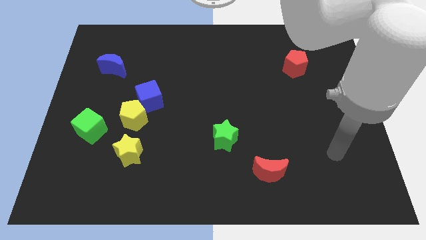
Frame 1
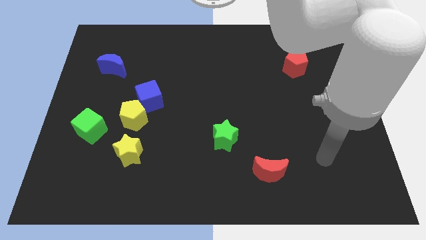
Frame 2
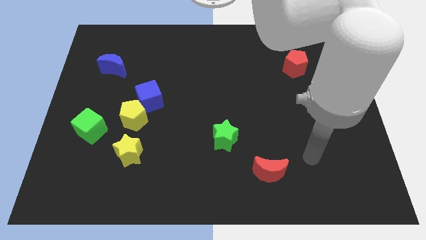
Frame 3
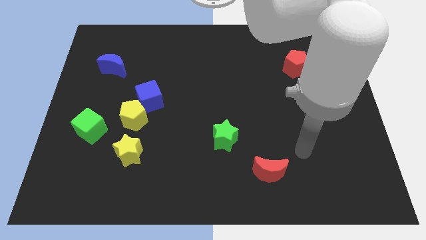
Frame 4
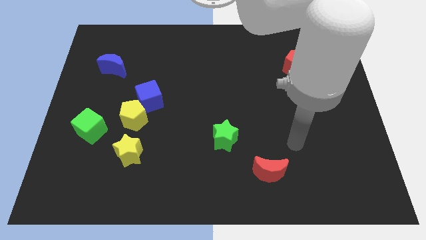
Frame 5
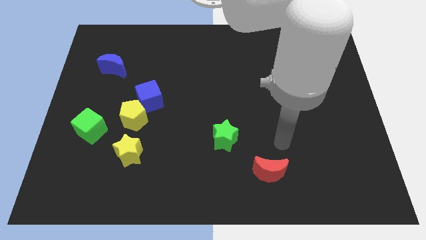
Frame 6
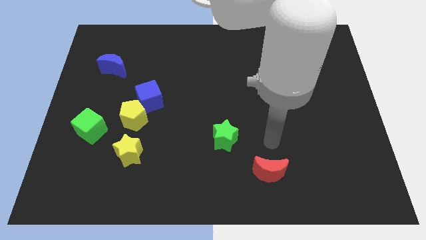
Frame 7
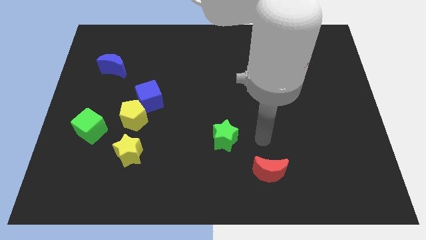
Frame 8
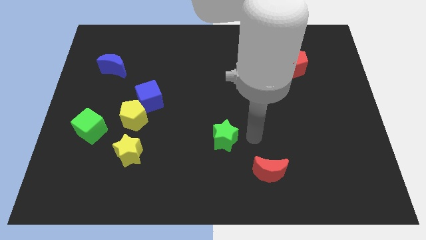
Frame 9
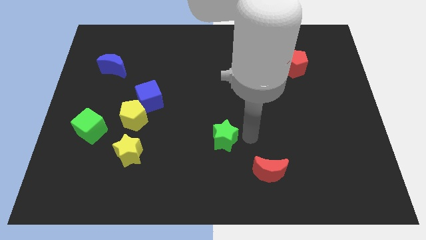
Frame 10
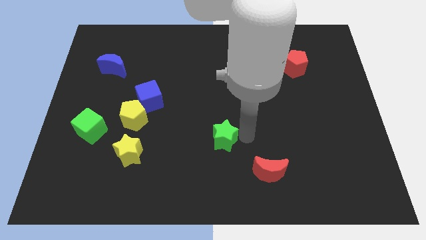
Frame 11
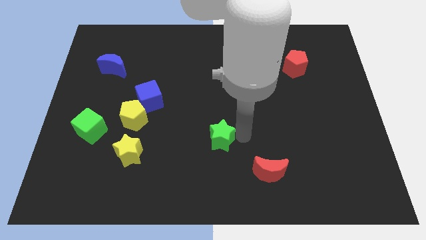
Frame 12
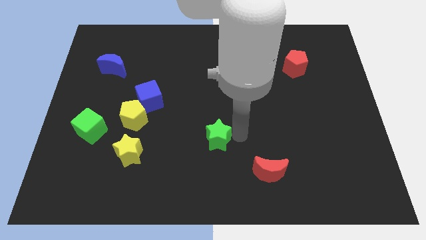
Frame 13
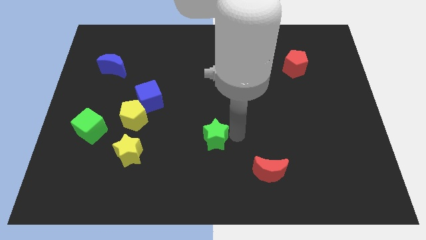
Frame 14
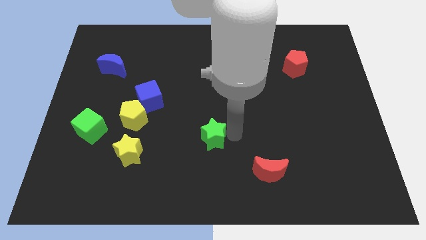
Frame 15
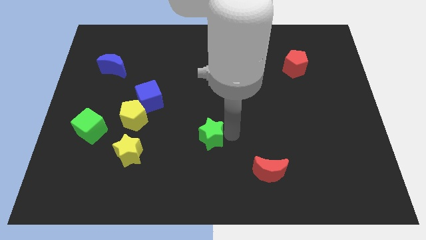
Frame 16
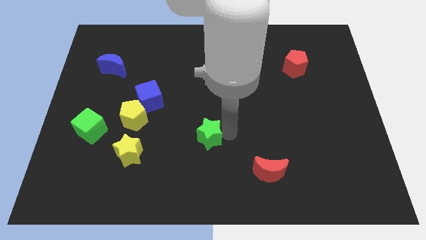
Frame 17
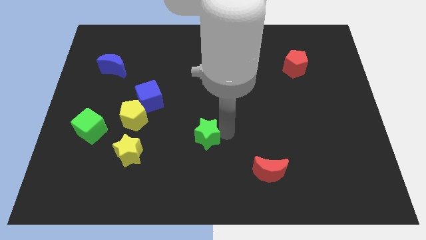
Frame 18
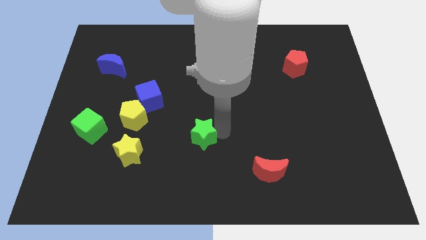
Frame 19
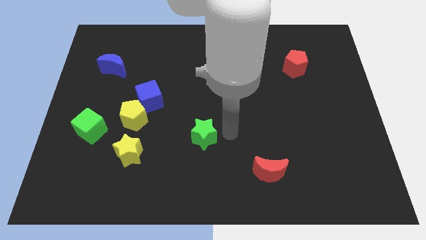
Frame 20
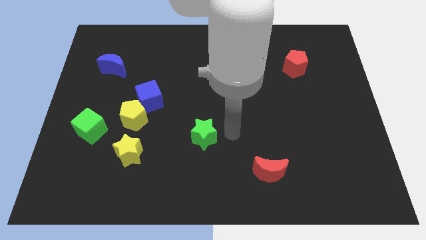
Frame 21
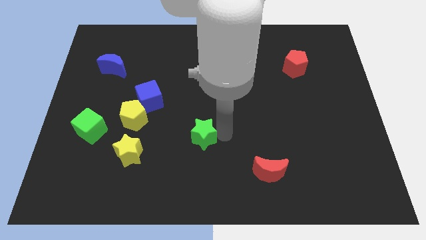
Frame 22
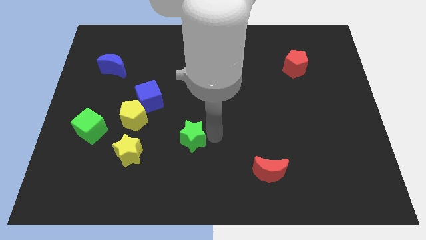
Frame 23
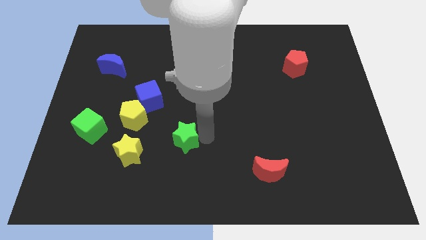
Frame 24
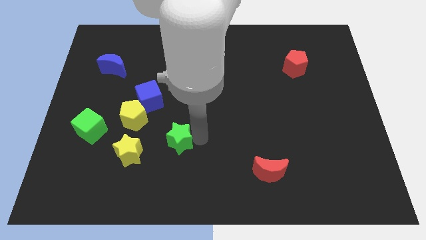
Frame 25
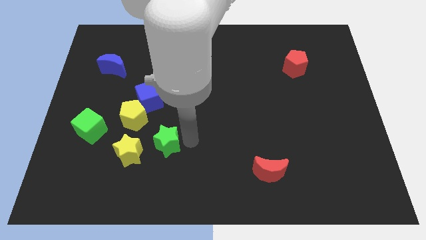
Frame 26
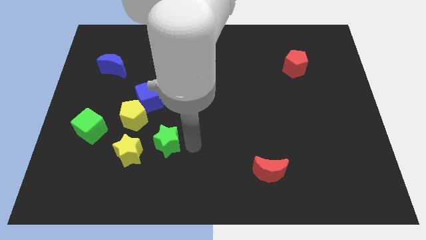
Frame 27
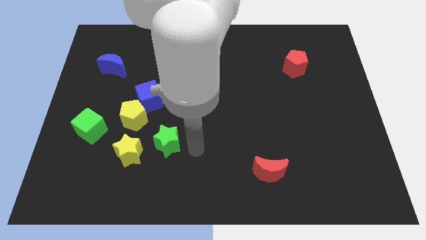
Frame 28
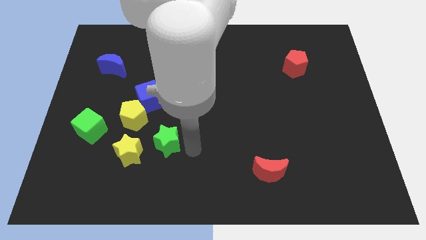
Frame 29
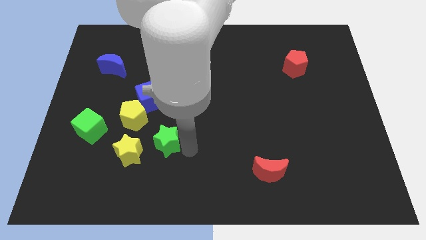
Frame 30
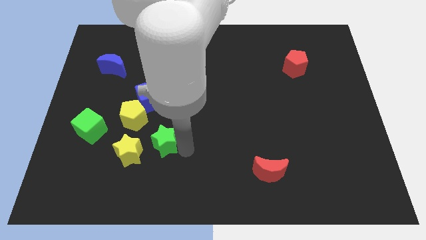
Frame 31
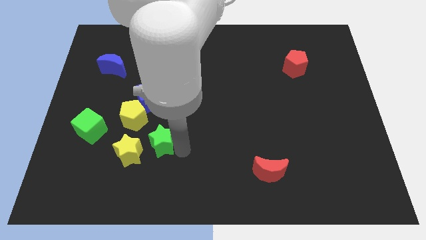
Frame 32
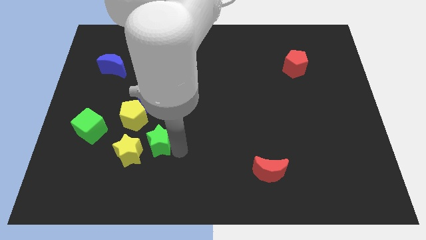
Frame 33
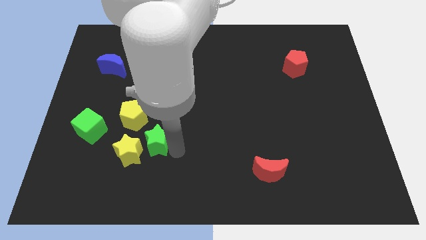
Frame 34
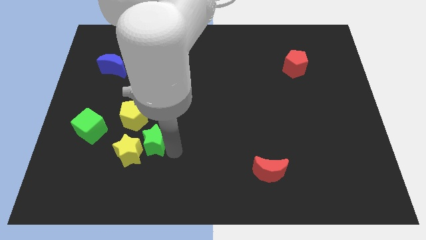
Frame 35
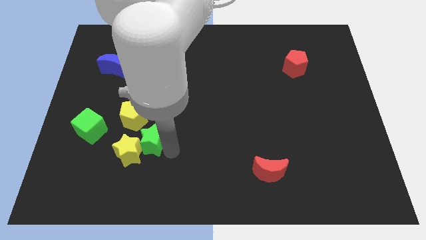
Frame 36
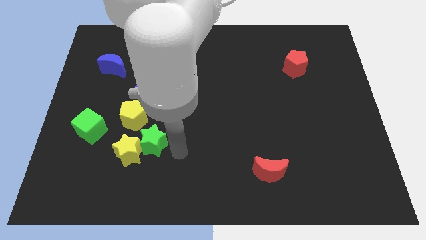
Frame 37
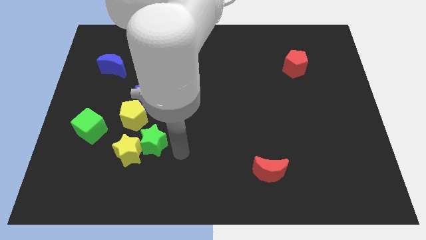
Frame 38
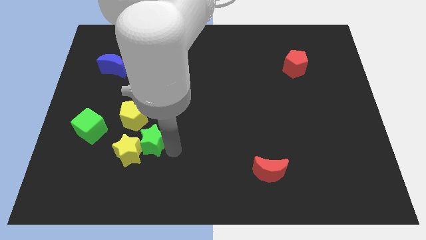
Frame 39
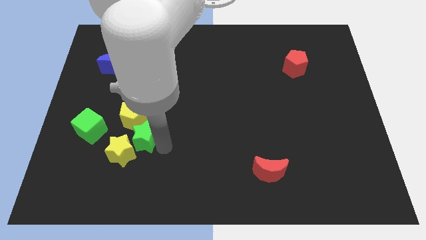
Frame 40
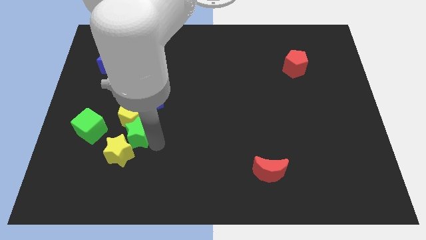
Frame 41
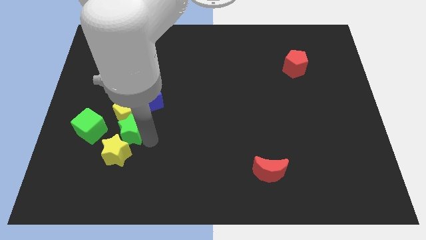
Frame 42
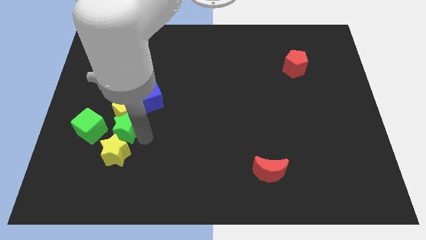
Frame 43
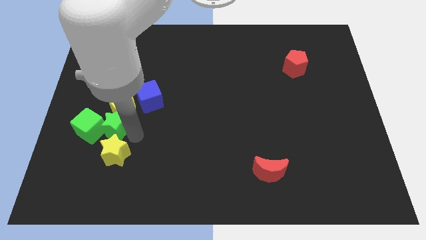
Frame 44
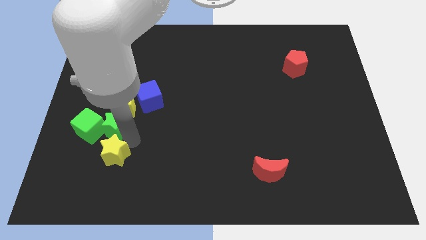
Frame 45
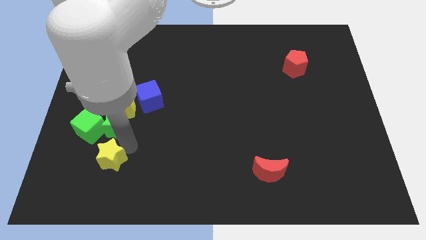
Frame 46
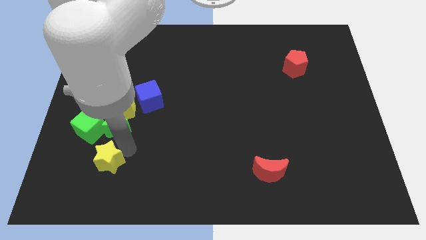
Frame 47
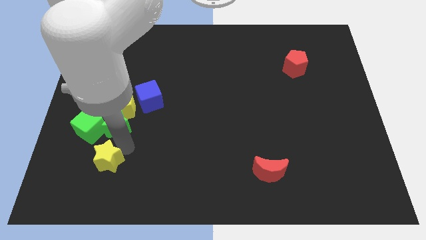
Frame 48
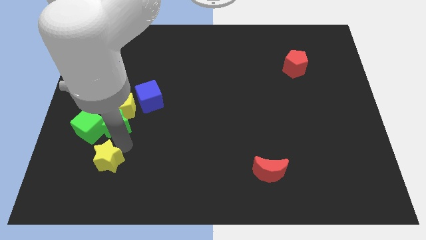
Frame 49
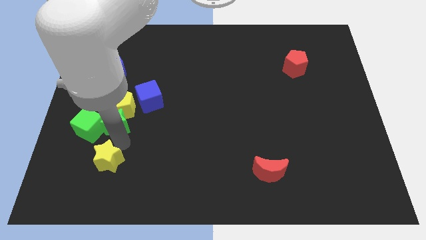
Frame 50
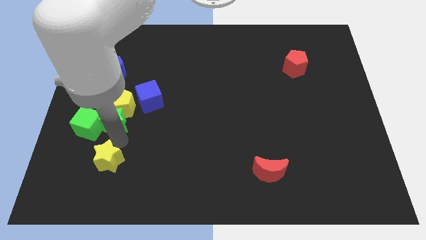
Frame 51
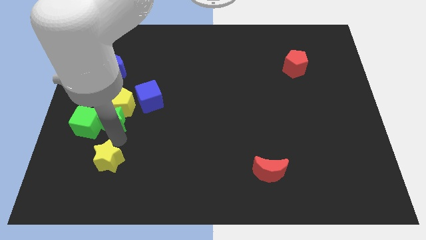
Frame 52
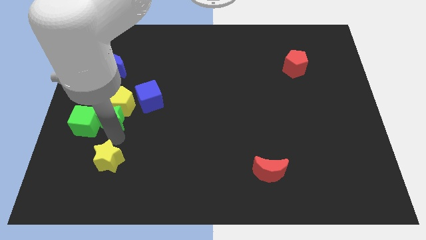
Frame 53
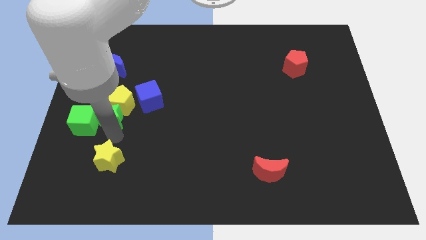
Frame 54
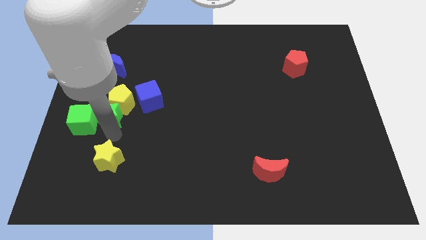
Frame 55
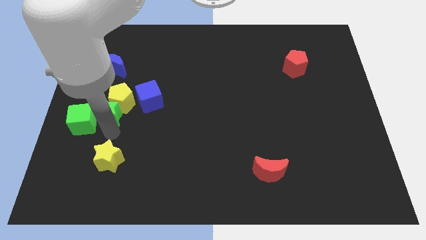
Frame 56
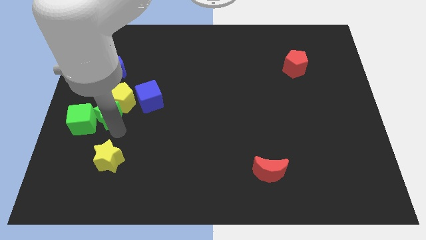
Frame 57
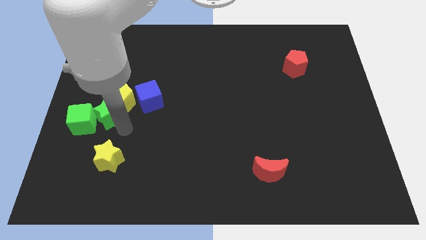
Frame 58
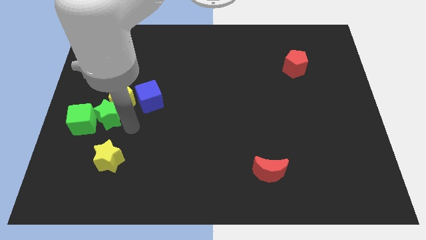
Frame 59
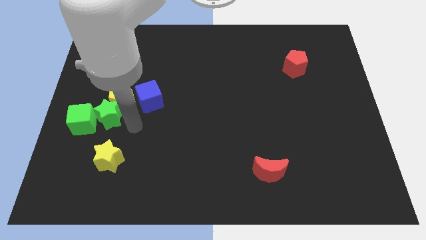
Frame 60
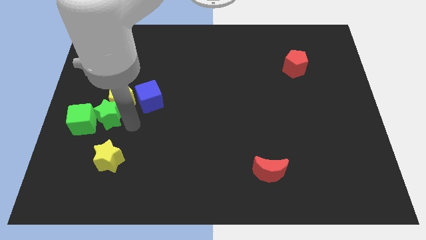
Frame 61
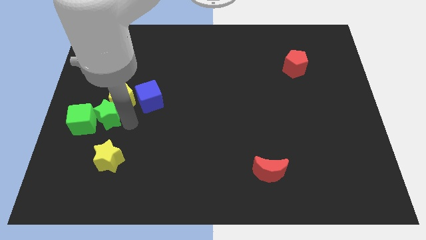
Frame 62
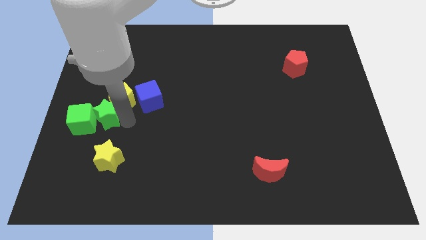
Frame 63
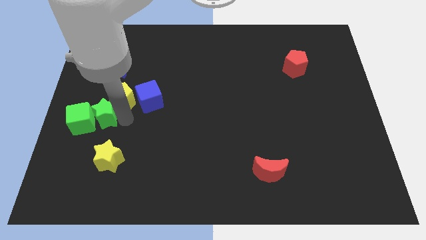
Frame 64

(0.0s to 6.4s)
put the green star to the left side of the yellow pentagon
